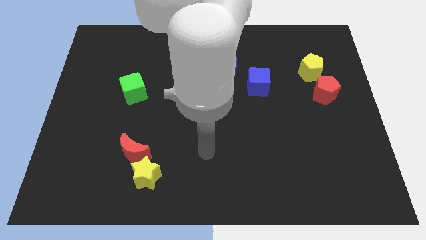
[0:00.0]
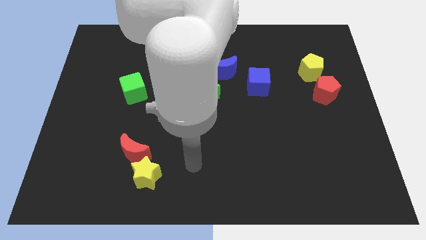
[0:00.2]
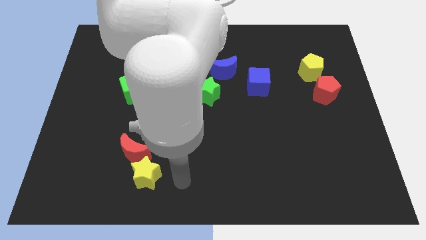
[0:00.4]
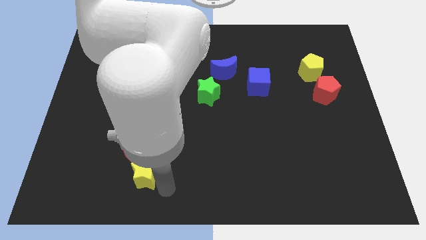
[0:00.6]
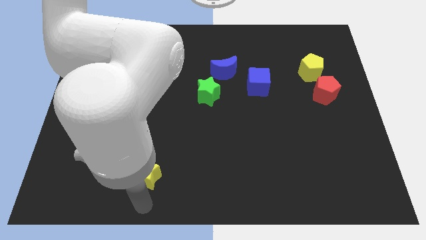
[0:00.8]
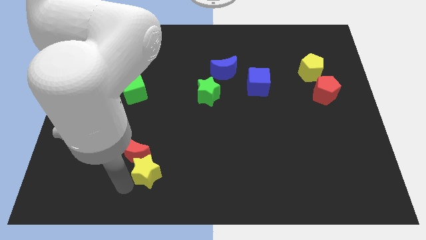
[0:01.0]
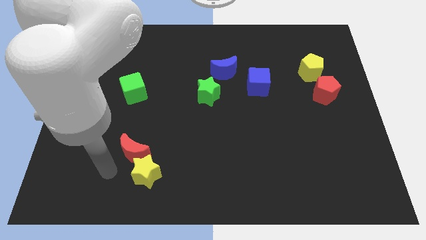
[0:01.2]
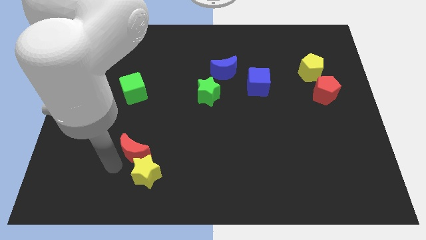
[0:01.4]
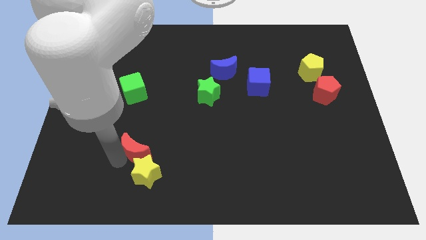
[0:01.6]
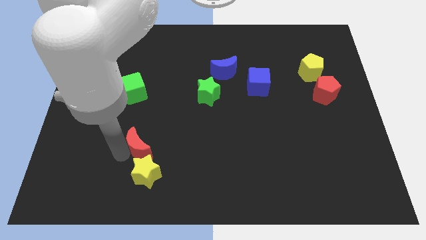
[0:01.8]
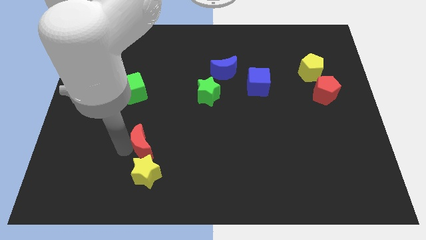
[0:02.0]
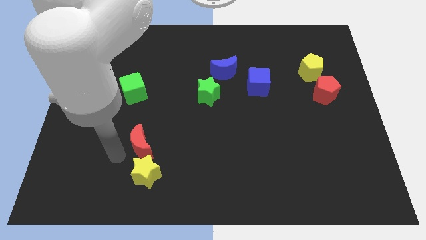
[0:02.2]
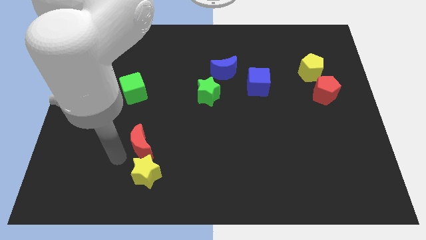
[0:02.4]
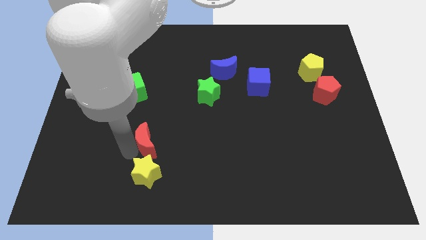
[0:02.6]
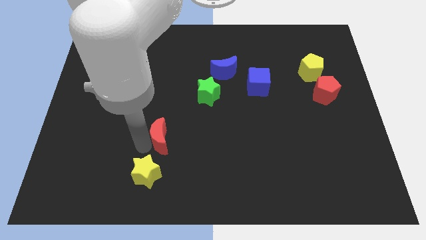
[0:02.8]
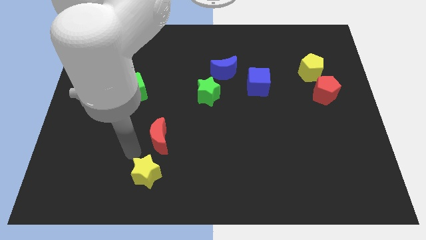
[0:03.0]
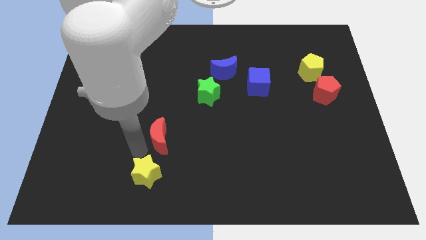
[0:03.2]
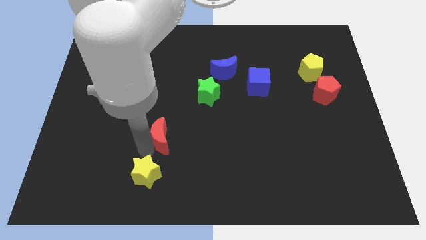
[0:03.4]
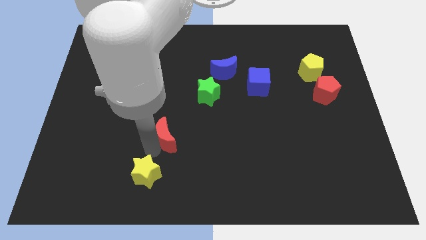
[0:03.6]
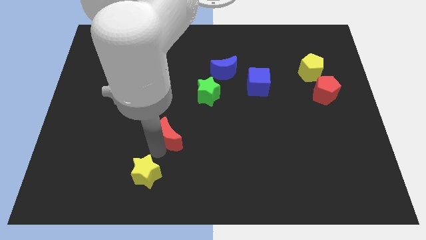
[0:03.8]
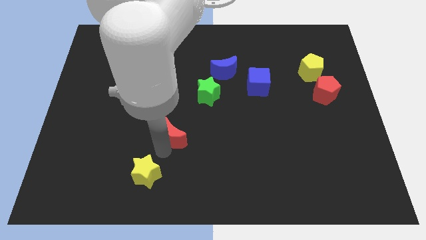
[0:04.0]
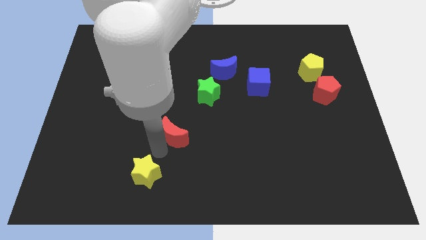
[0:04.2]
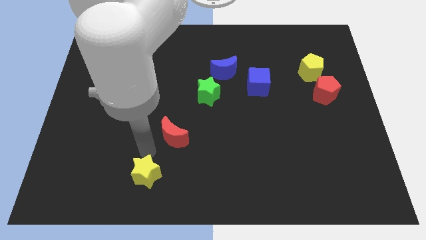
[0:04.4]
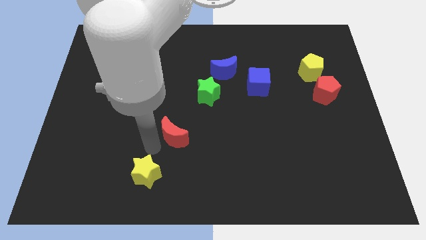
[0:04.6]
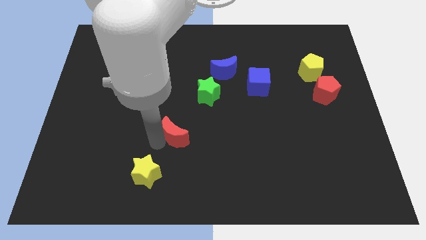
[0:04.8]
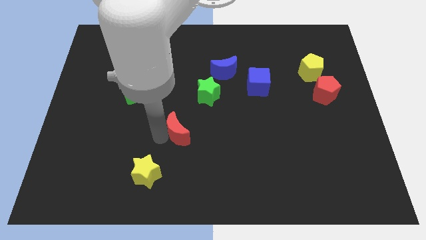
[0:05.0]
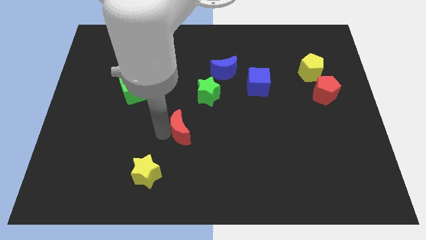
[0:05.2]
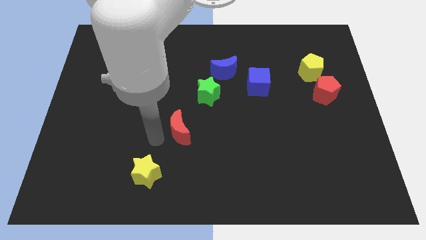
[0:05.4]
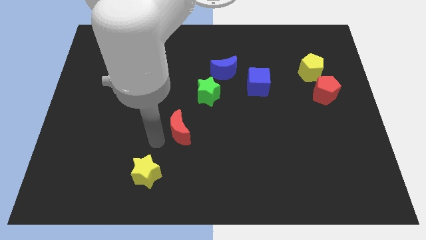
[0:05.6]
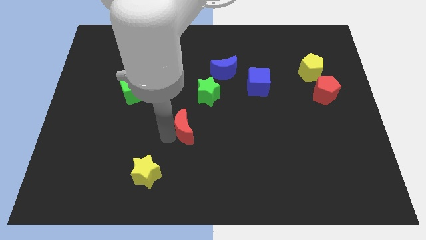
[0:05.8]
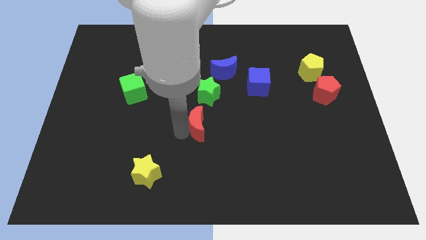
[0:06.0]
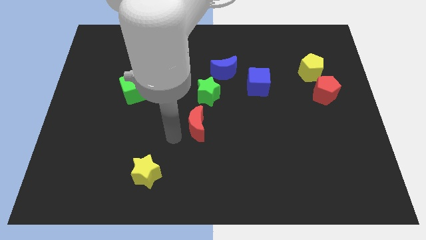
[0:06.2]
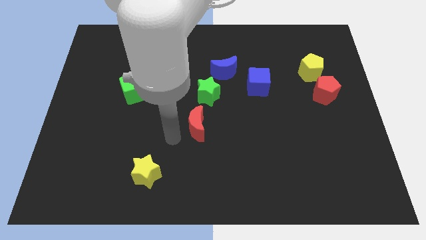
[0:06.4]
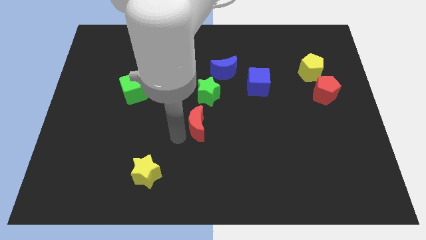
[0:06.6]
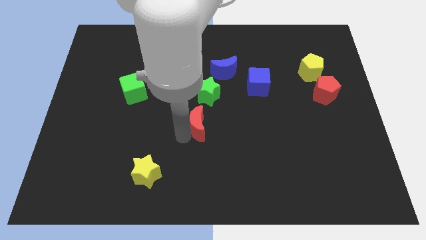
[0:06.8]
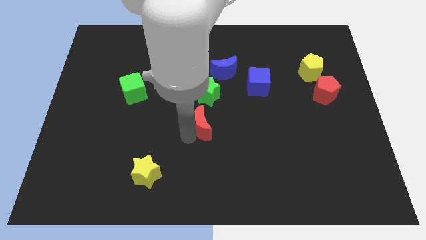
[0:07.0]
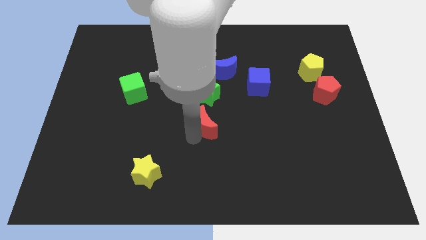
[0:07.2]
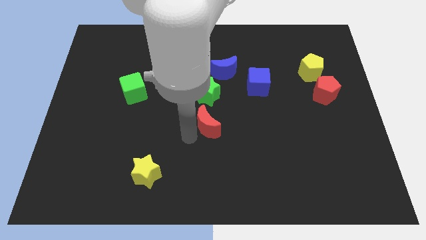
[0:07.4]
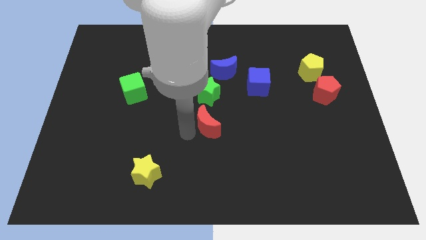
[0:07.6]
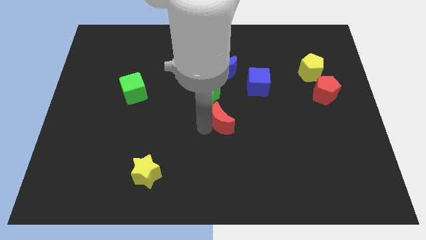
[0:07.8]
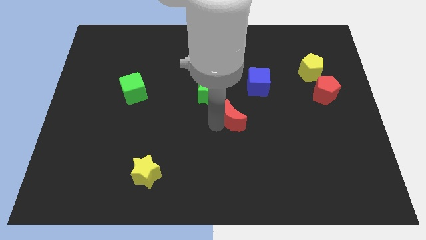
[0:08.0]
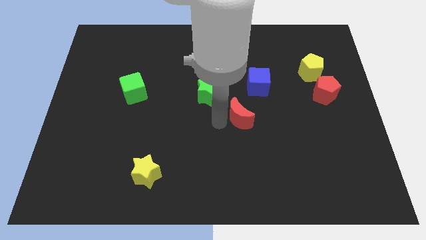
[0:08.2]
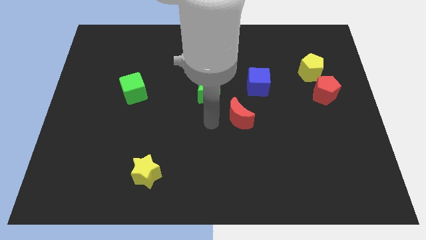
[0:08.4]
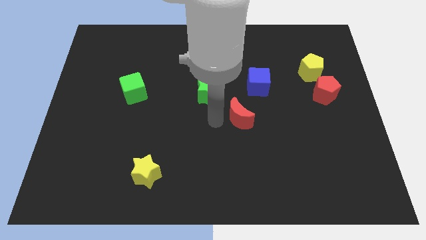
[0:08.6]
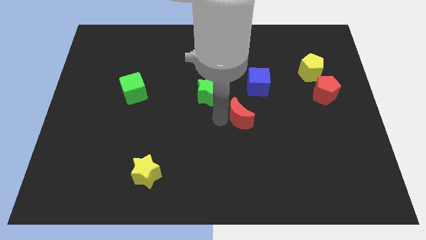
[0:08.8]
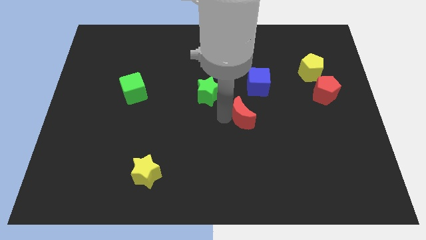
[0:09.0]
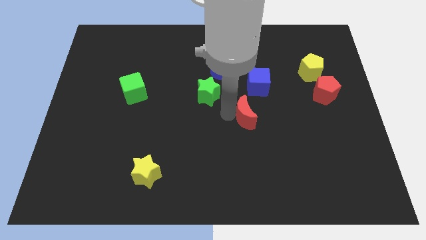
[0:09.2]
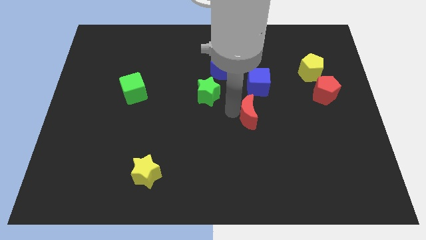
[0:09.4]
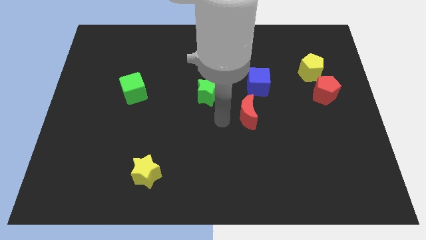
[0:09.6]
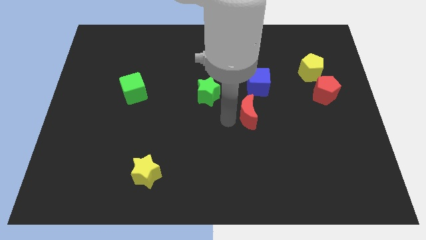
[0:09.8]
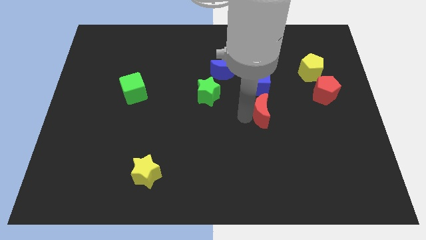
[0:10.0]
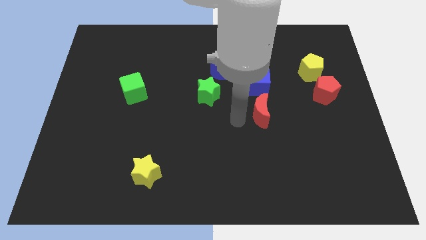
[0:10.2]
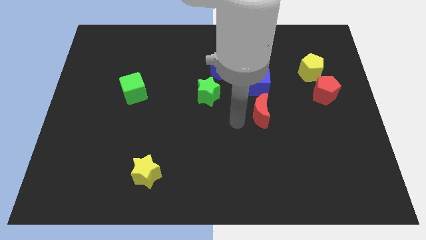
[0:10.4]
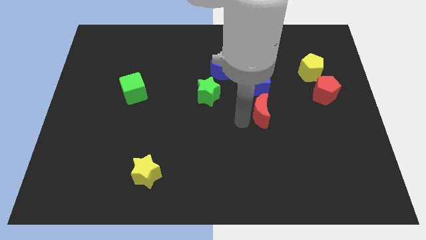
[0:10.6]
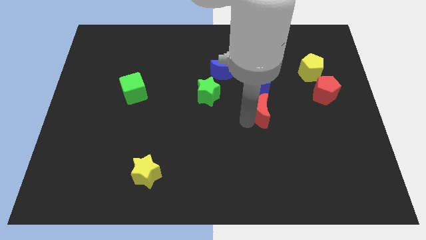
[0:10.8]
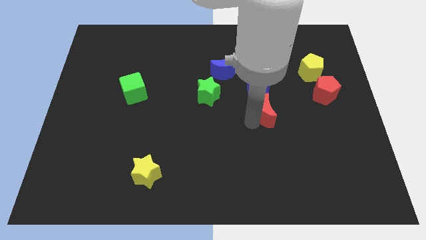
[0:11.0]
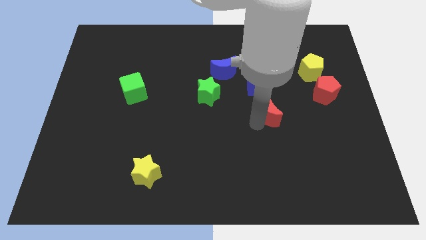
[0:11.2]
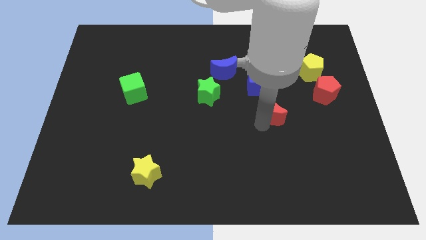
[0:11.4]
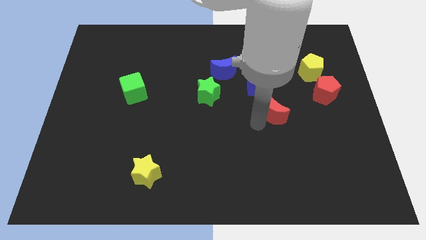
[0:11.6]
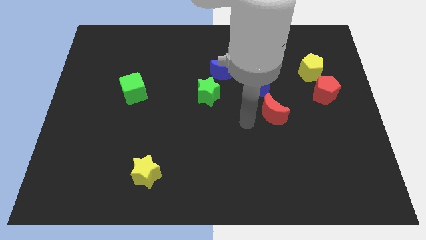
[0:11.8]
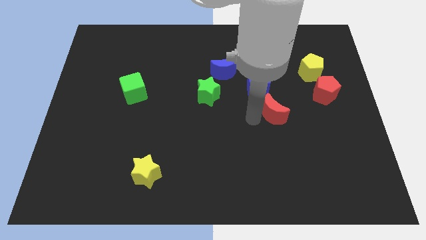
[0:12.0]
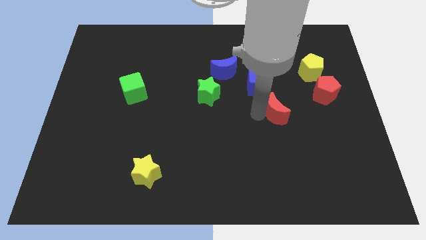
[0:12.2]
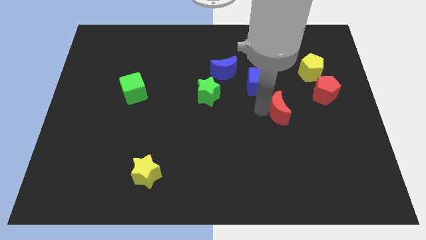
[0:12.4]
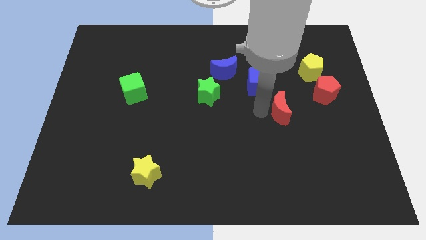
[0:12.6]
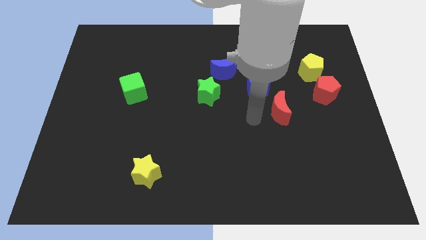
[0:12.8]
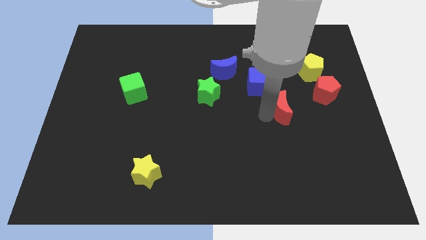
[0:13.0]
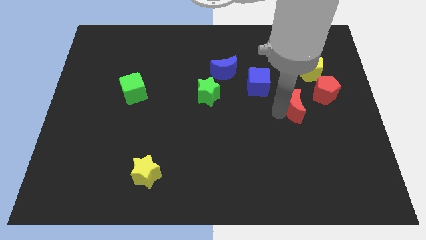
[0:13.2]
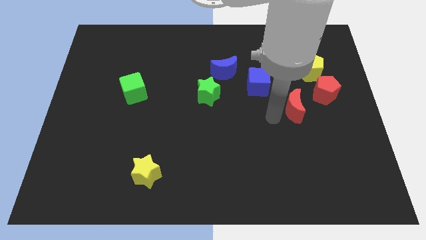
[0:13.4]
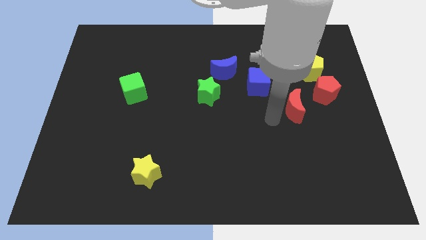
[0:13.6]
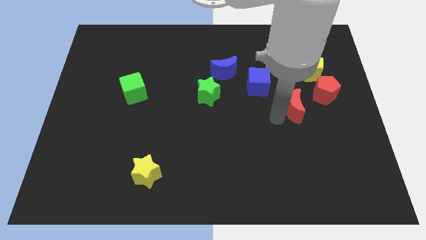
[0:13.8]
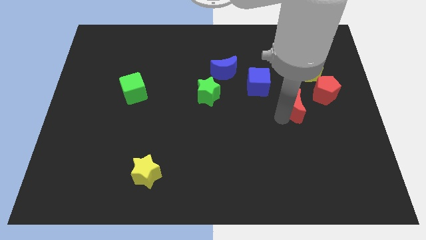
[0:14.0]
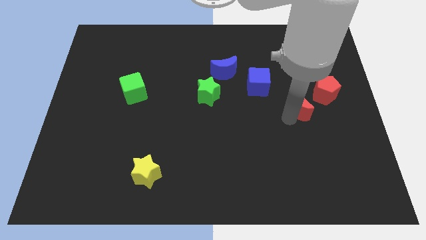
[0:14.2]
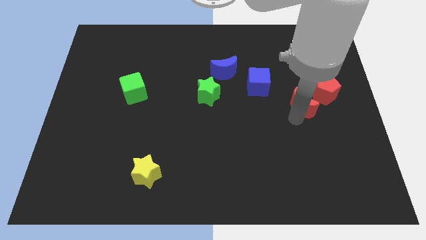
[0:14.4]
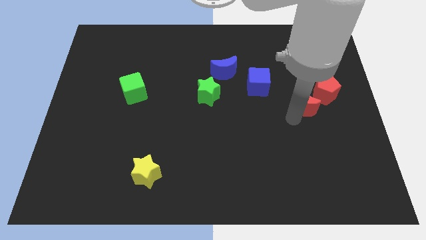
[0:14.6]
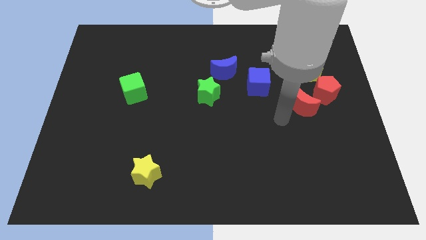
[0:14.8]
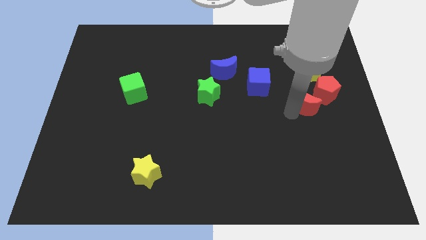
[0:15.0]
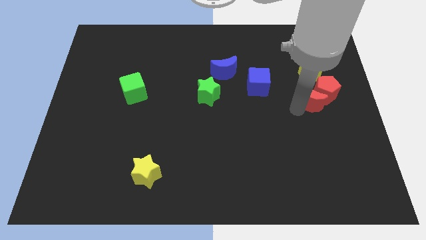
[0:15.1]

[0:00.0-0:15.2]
move the red moon towards the red pentagon
